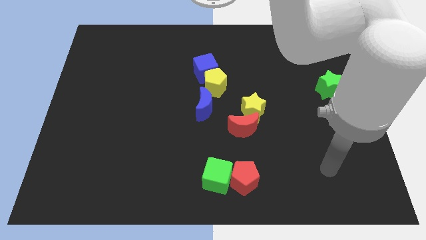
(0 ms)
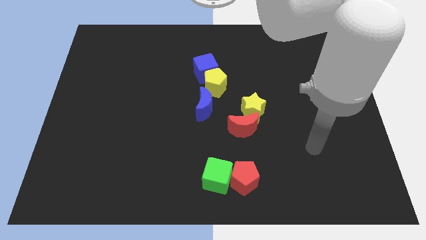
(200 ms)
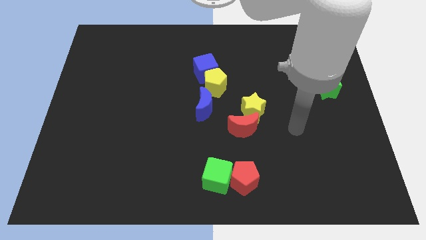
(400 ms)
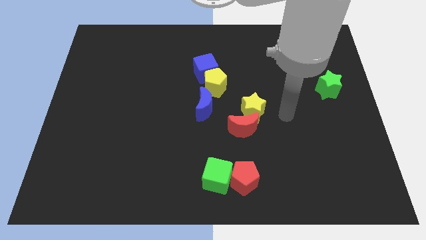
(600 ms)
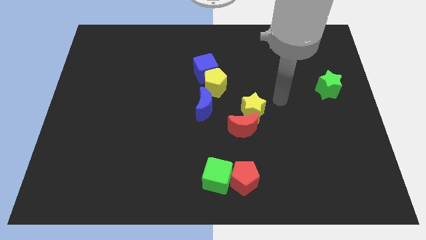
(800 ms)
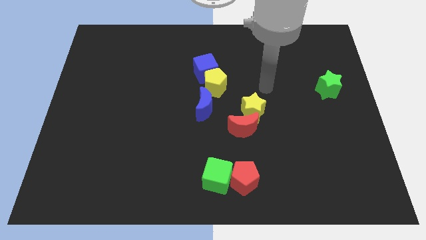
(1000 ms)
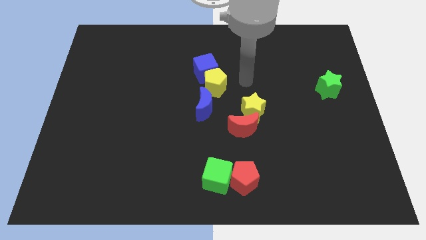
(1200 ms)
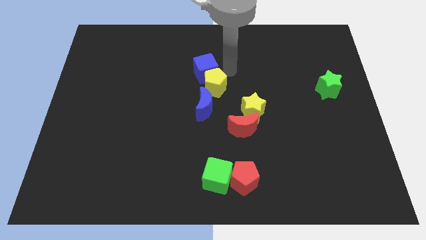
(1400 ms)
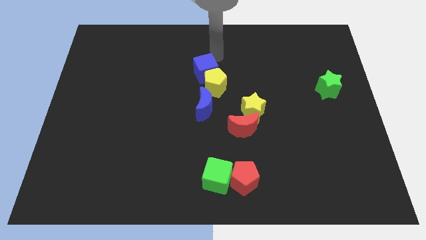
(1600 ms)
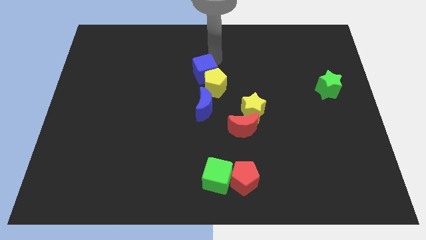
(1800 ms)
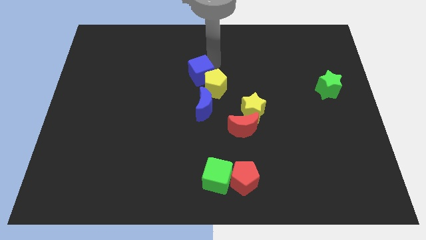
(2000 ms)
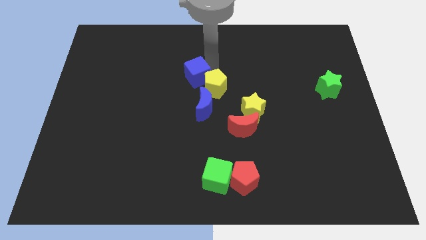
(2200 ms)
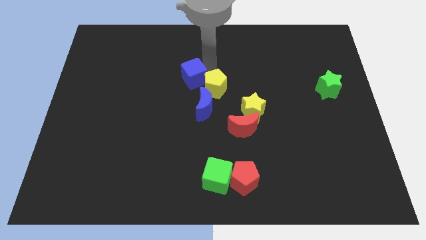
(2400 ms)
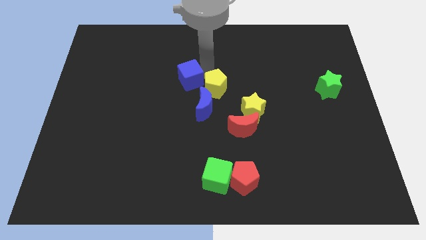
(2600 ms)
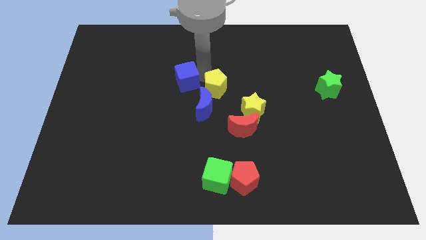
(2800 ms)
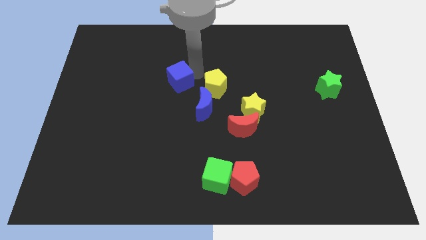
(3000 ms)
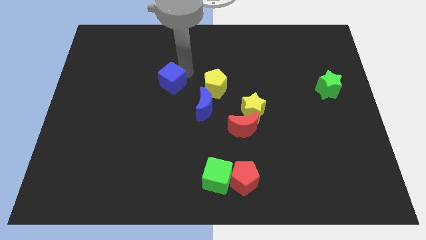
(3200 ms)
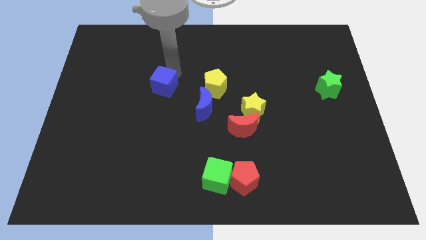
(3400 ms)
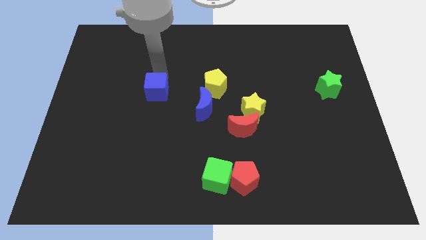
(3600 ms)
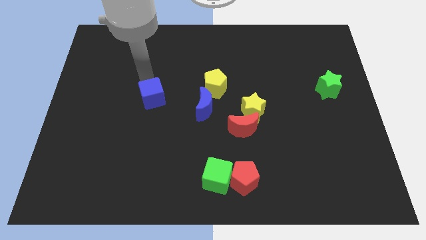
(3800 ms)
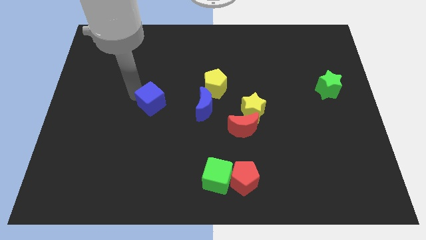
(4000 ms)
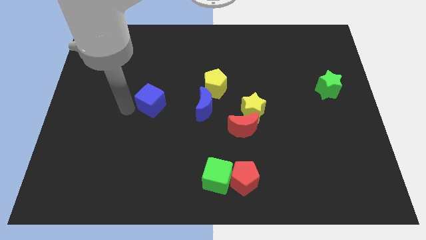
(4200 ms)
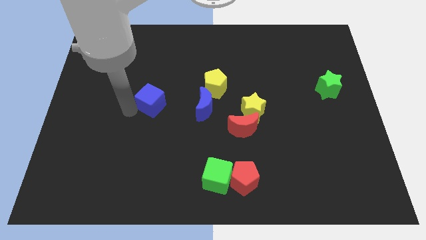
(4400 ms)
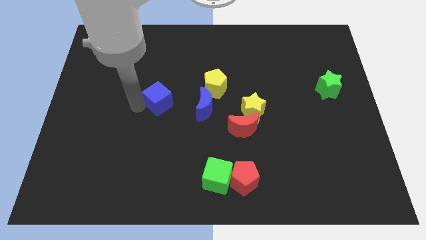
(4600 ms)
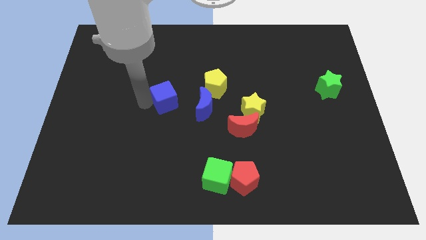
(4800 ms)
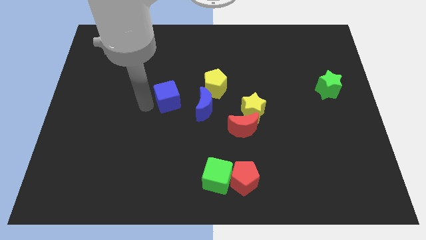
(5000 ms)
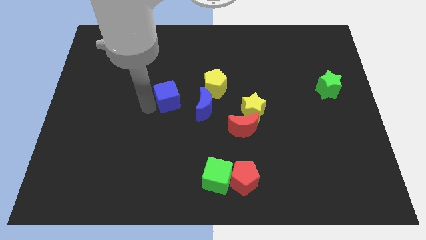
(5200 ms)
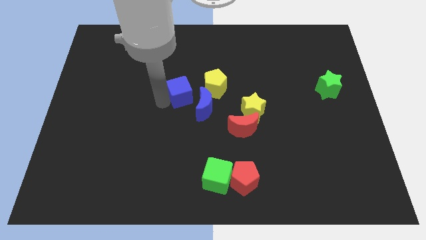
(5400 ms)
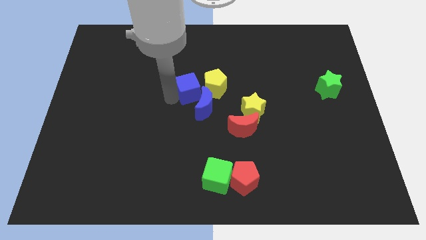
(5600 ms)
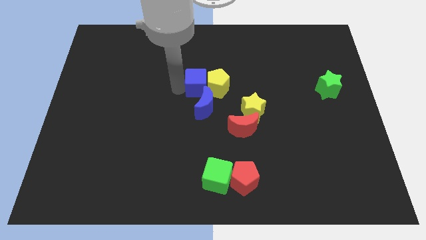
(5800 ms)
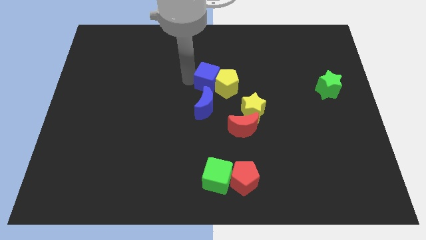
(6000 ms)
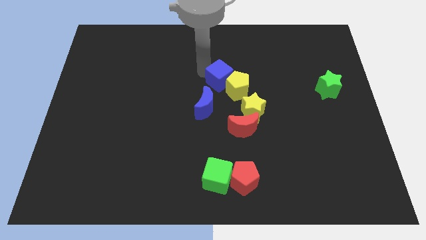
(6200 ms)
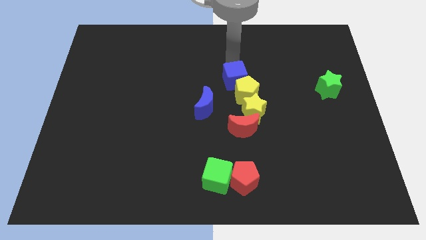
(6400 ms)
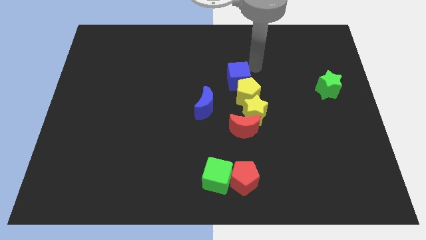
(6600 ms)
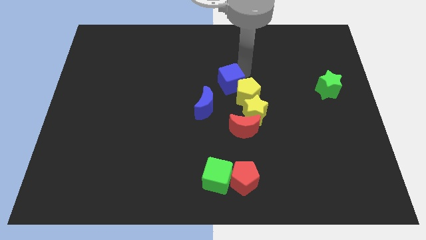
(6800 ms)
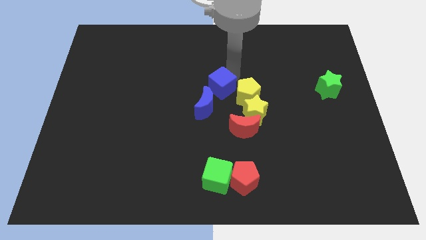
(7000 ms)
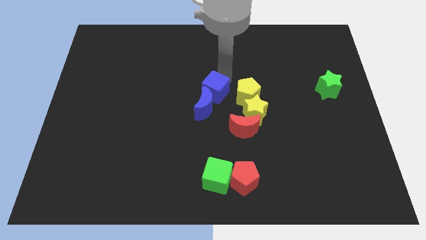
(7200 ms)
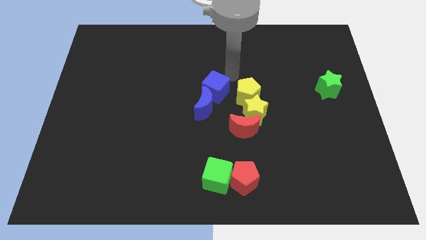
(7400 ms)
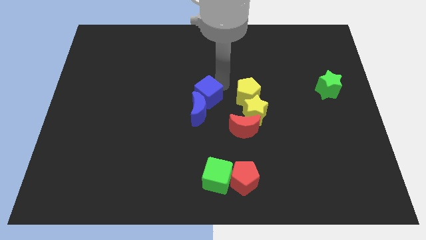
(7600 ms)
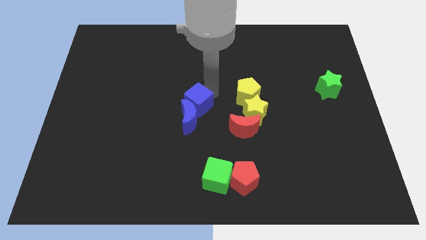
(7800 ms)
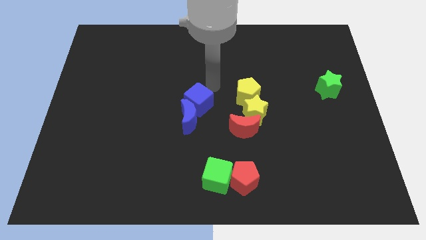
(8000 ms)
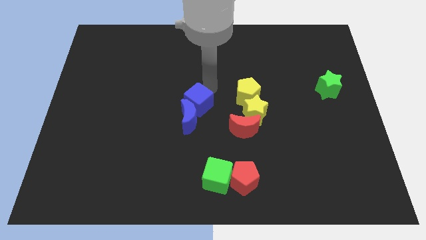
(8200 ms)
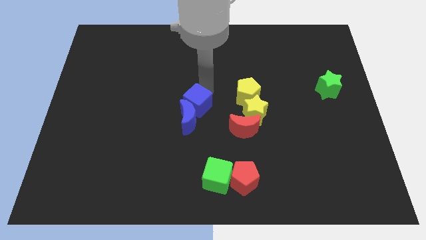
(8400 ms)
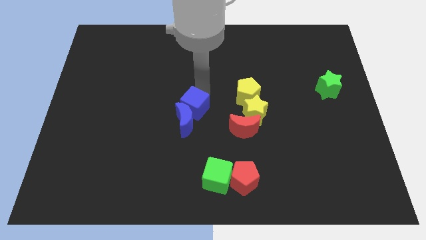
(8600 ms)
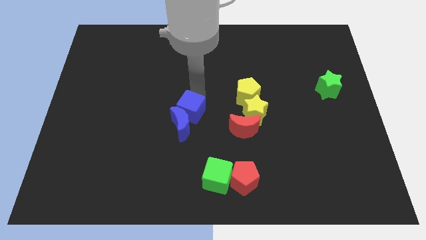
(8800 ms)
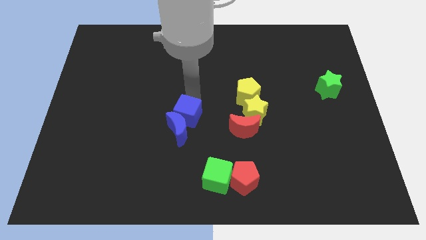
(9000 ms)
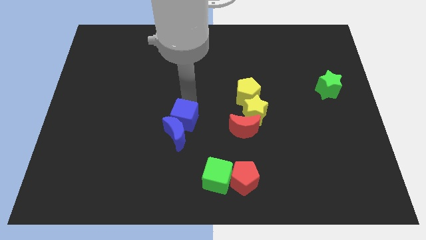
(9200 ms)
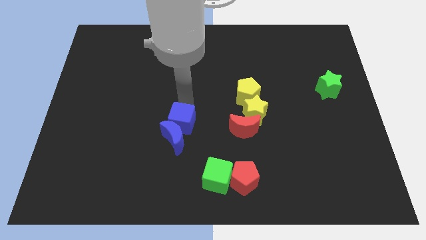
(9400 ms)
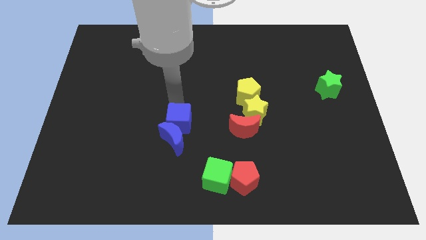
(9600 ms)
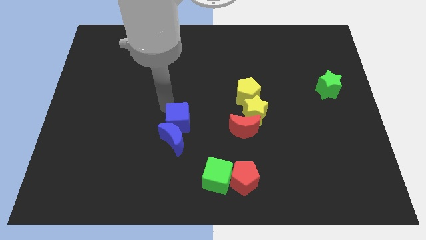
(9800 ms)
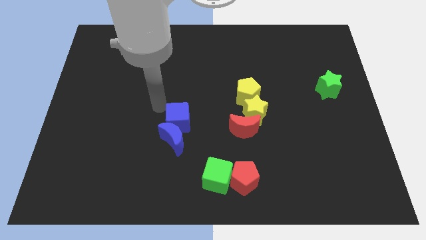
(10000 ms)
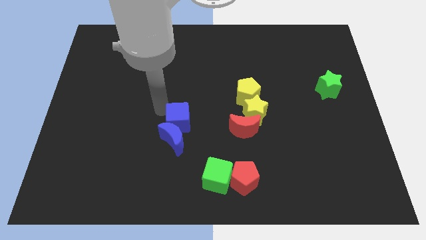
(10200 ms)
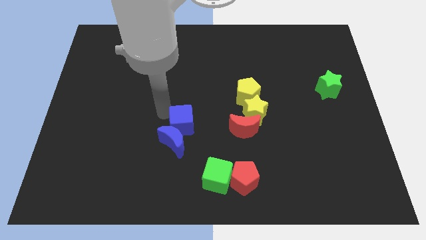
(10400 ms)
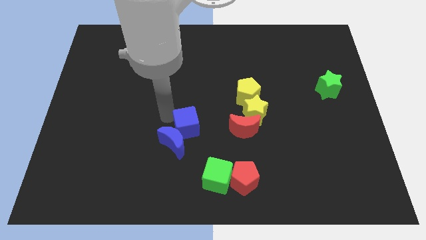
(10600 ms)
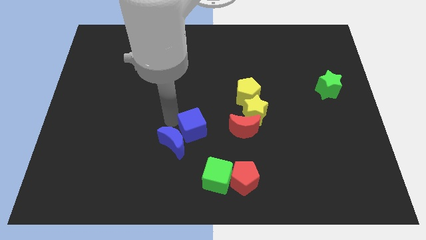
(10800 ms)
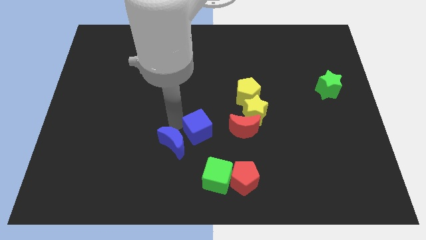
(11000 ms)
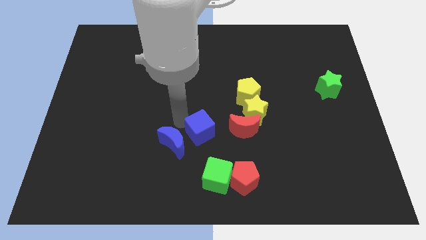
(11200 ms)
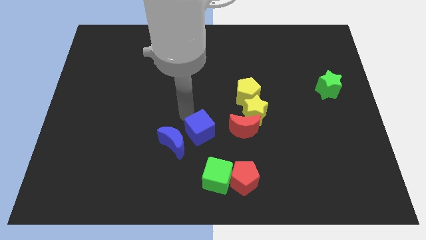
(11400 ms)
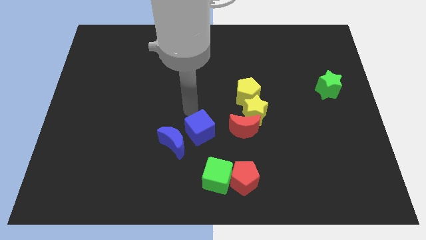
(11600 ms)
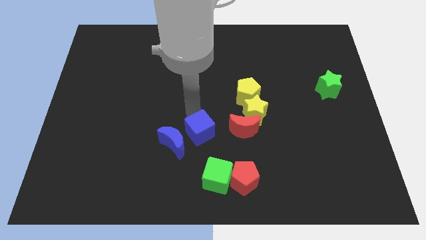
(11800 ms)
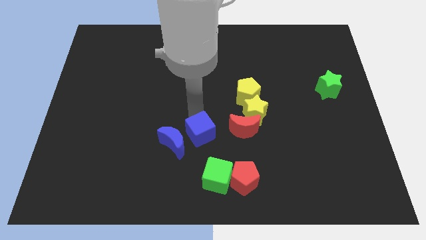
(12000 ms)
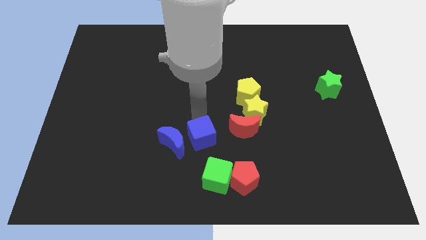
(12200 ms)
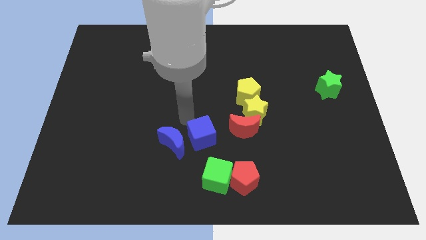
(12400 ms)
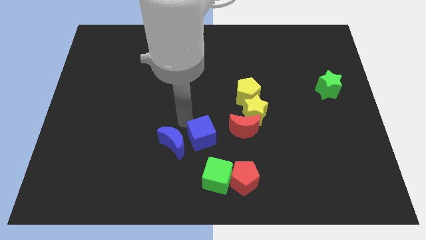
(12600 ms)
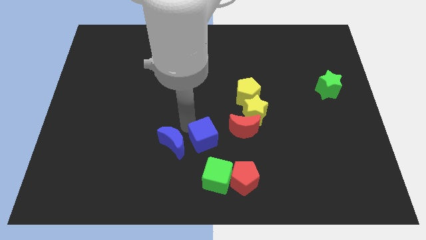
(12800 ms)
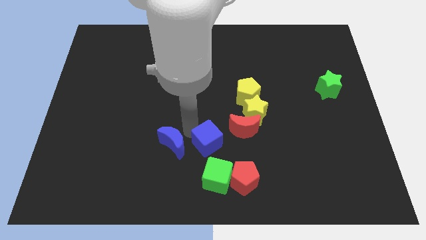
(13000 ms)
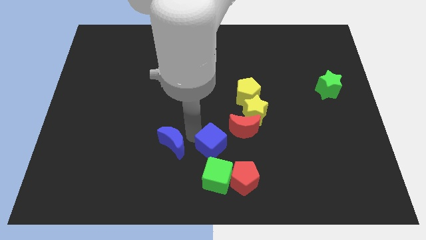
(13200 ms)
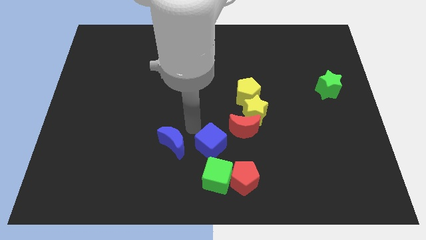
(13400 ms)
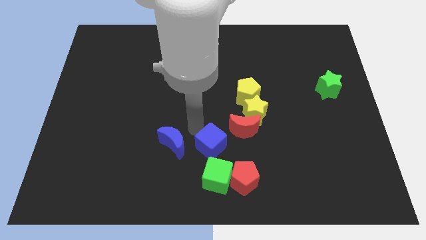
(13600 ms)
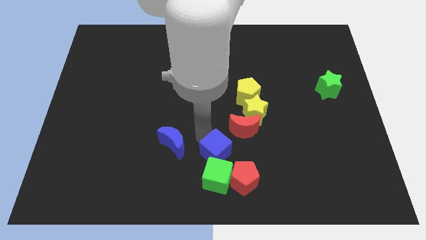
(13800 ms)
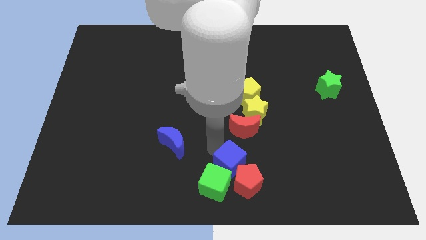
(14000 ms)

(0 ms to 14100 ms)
push the blue cube to the red pentagon

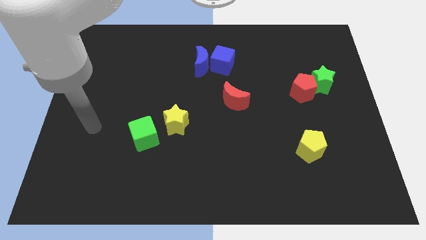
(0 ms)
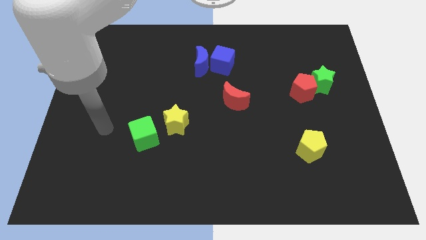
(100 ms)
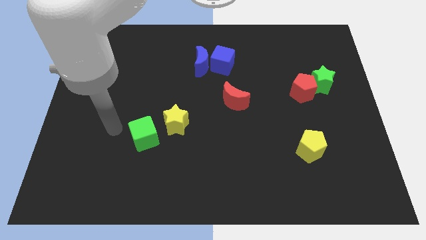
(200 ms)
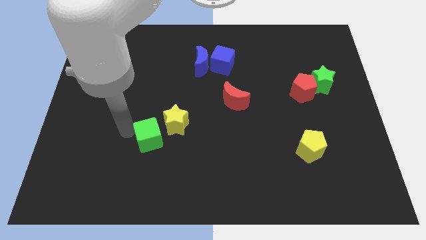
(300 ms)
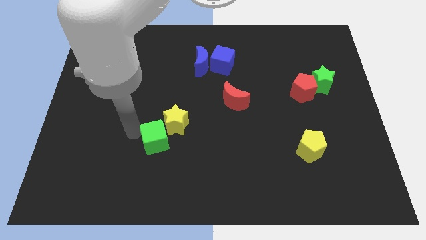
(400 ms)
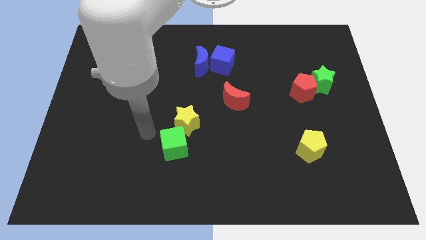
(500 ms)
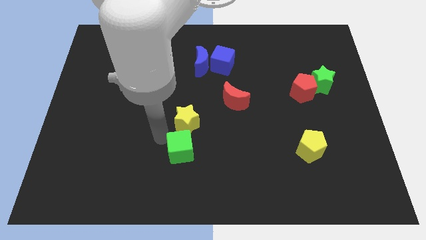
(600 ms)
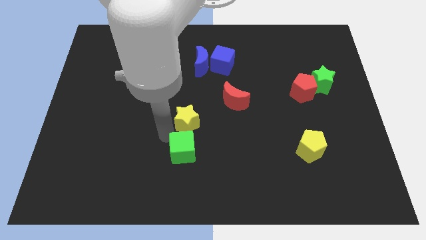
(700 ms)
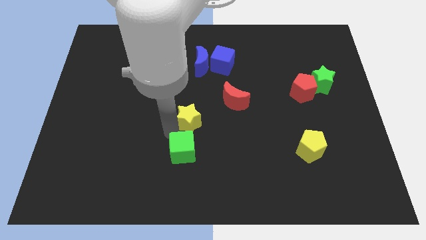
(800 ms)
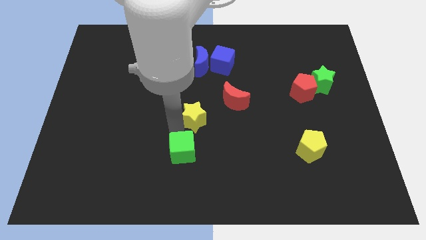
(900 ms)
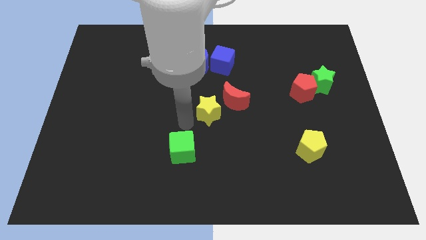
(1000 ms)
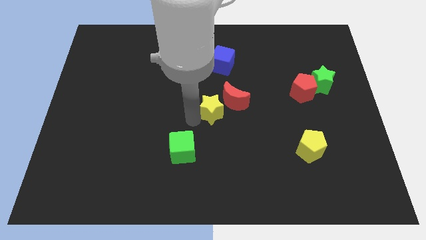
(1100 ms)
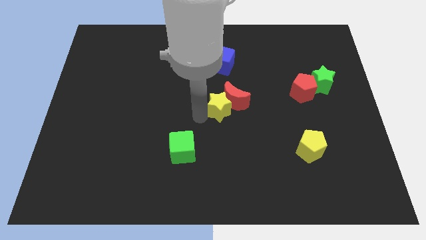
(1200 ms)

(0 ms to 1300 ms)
push the yellow star towards the red moon
